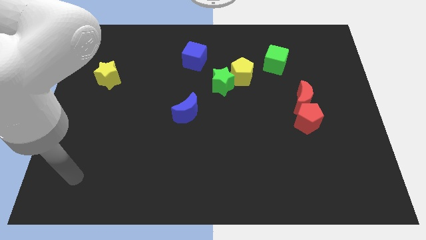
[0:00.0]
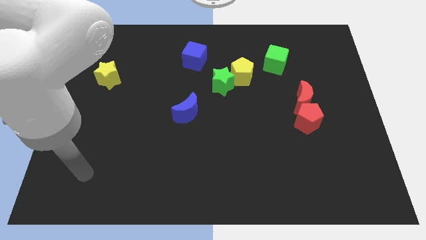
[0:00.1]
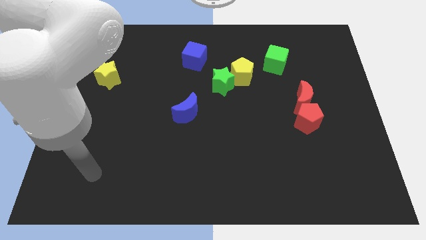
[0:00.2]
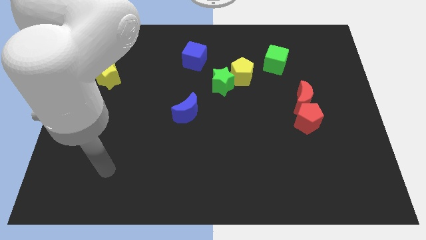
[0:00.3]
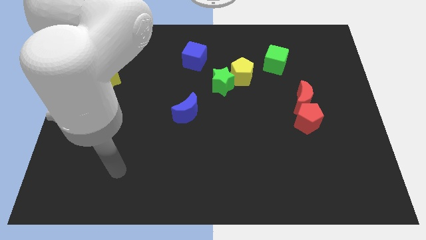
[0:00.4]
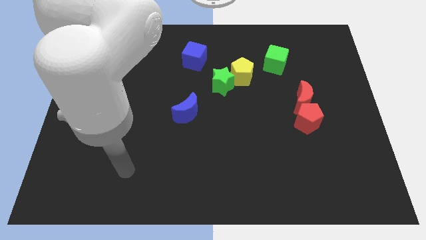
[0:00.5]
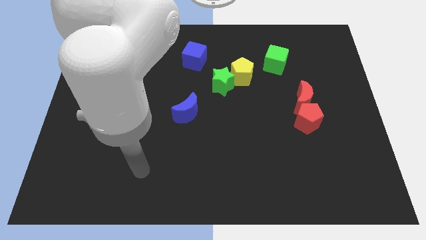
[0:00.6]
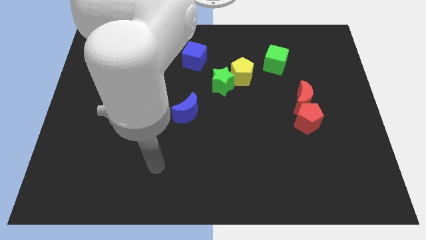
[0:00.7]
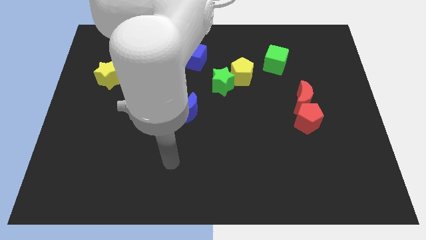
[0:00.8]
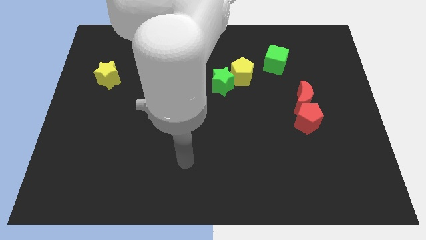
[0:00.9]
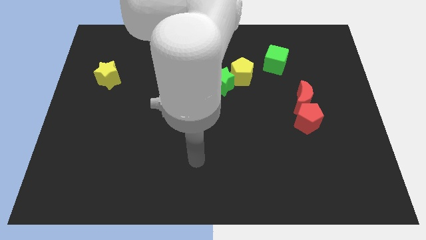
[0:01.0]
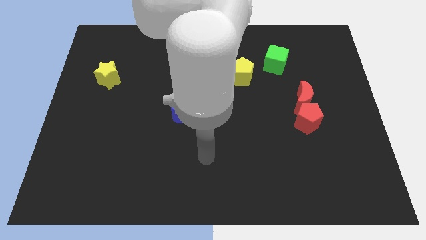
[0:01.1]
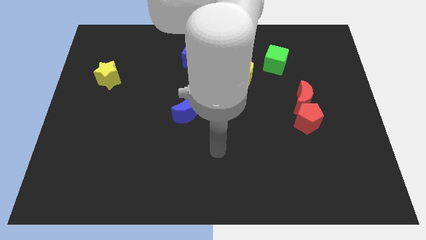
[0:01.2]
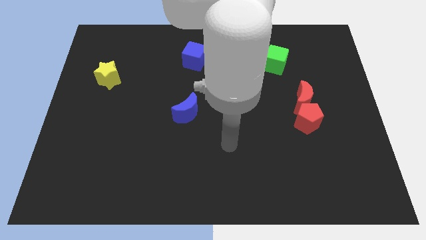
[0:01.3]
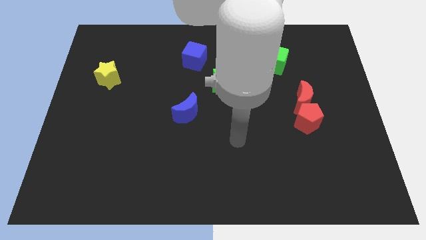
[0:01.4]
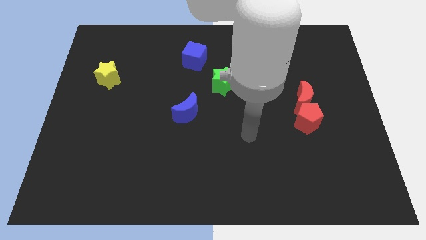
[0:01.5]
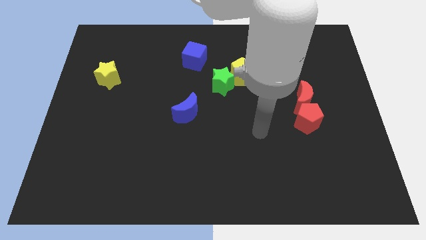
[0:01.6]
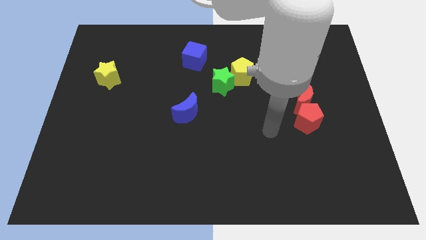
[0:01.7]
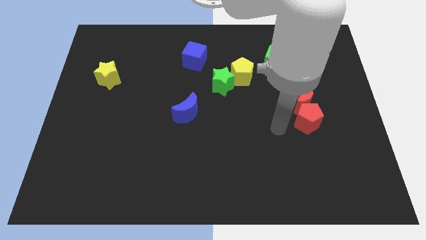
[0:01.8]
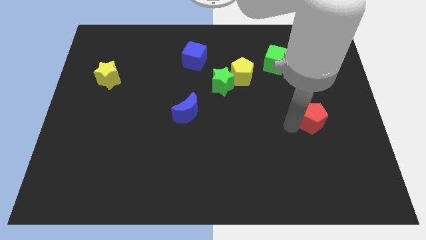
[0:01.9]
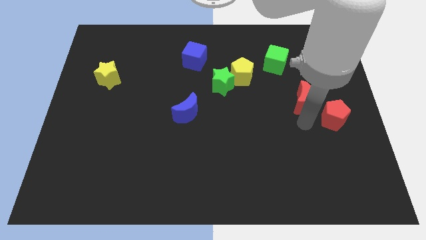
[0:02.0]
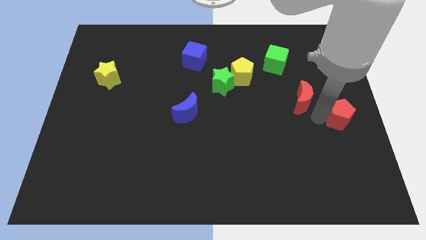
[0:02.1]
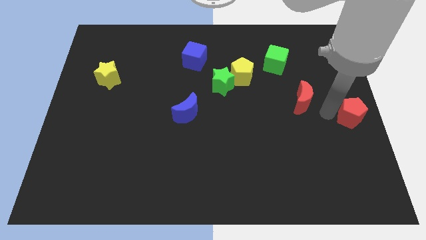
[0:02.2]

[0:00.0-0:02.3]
move the red moon away from the red pentagon

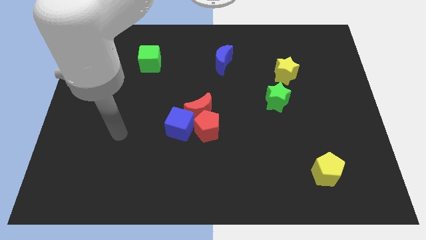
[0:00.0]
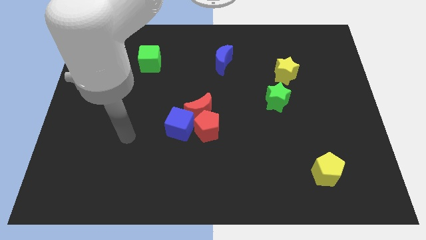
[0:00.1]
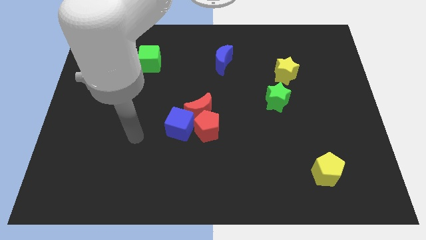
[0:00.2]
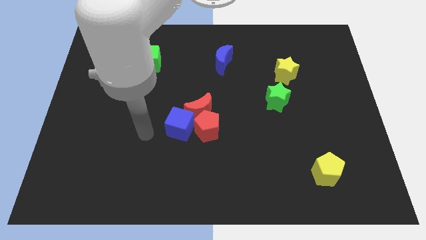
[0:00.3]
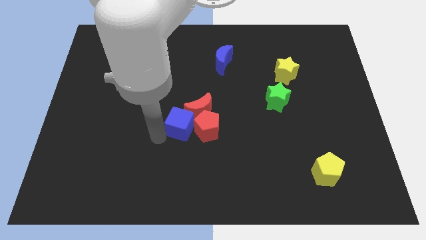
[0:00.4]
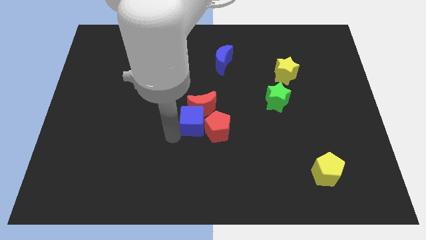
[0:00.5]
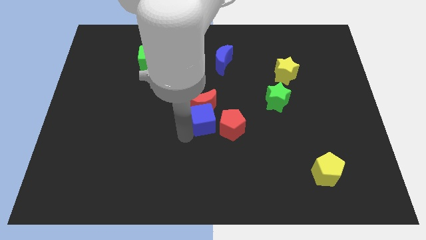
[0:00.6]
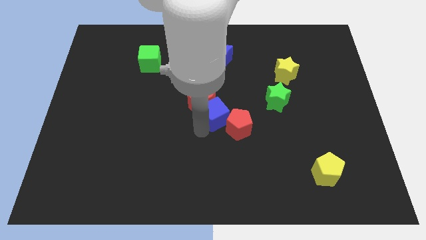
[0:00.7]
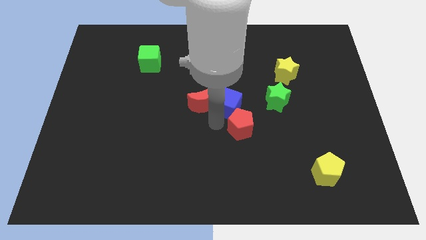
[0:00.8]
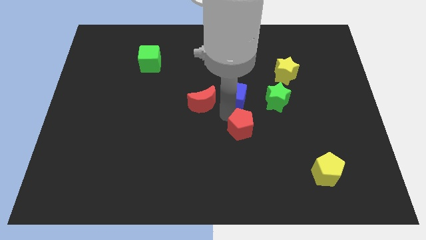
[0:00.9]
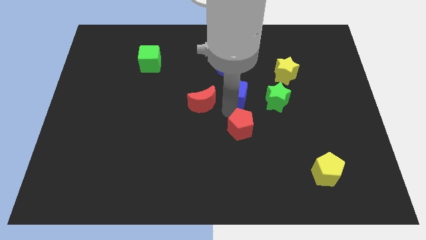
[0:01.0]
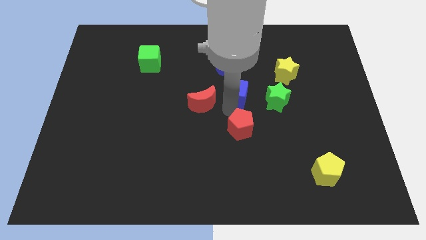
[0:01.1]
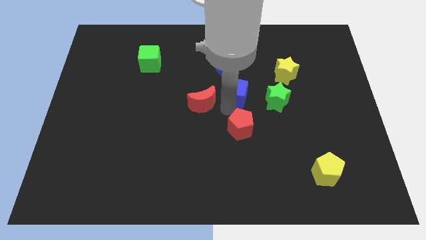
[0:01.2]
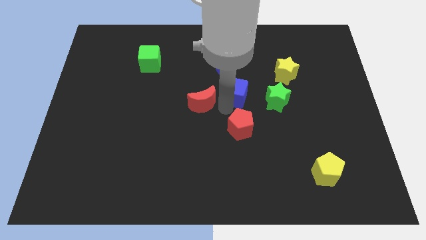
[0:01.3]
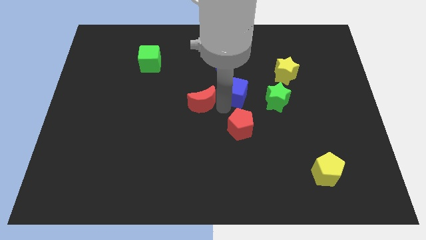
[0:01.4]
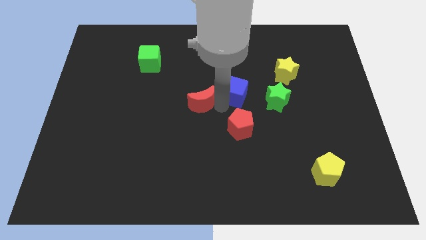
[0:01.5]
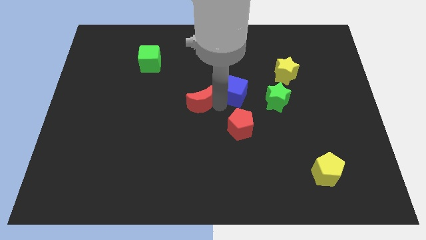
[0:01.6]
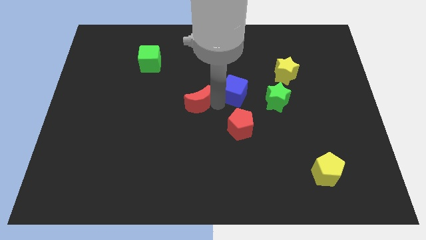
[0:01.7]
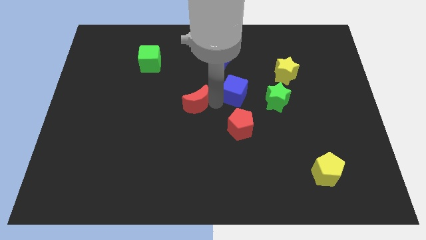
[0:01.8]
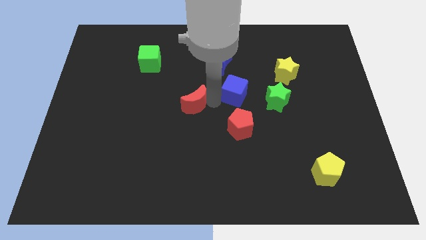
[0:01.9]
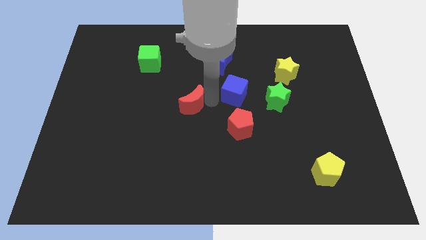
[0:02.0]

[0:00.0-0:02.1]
separate the red moon from the red pentagon and blue cube

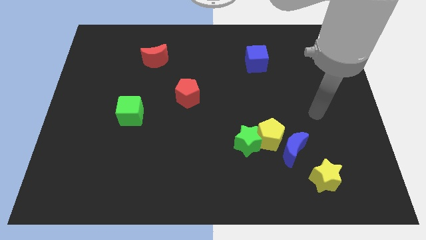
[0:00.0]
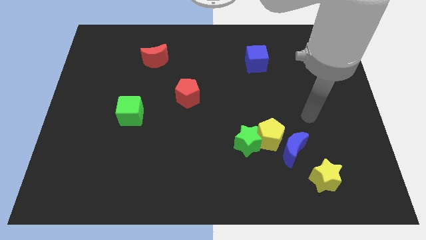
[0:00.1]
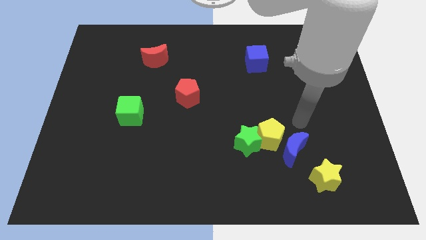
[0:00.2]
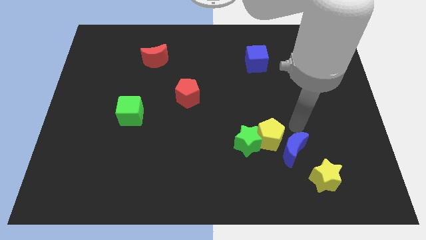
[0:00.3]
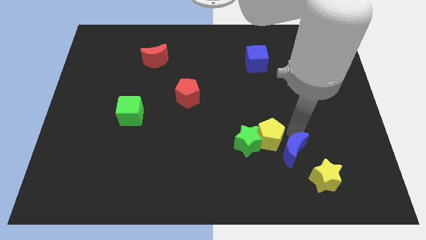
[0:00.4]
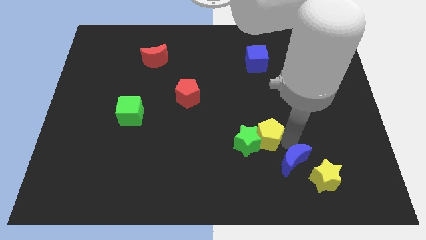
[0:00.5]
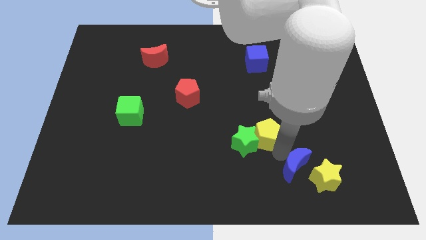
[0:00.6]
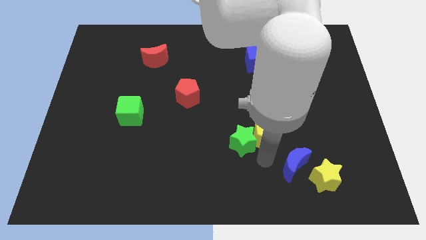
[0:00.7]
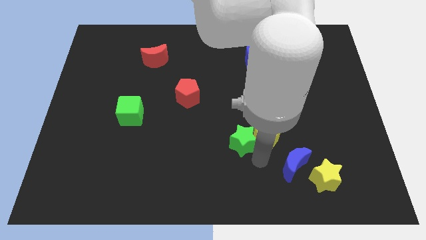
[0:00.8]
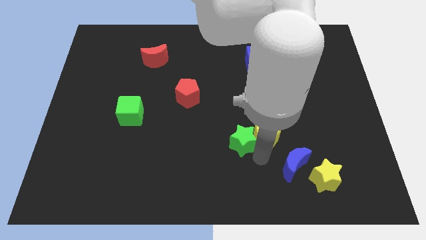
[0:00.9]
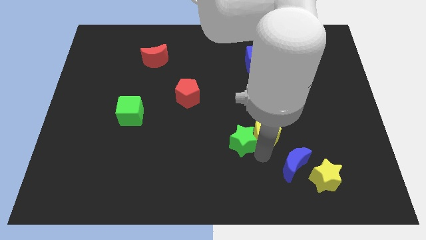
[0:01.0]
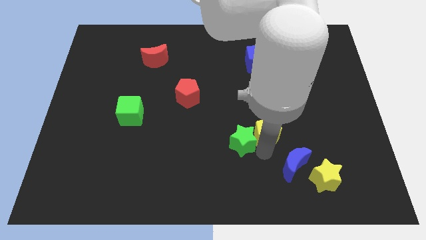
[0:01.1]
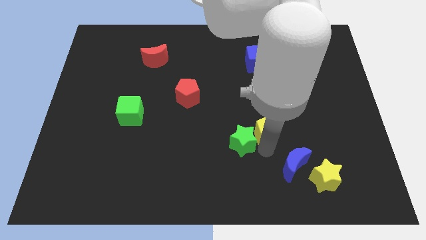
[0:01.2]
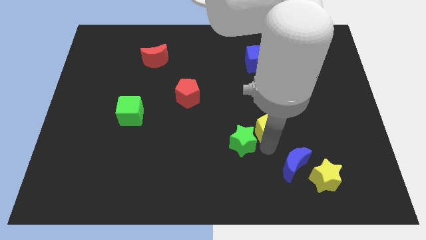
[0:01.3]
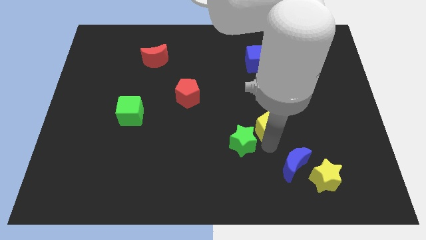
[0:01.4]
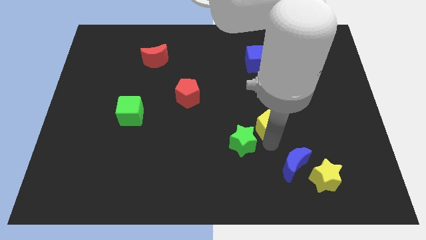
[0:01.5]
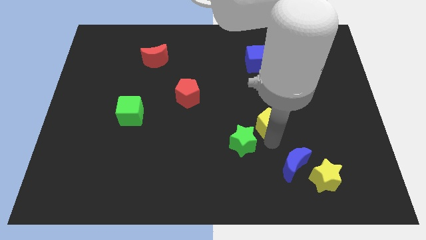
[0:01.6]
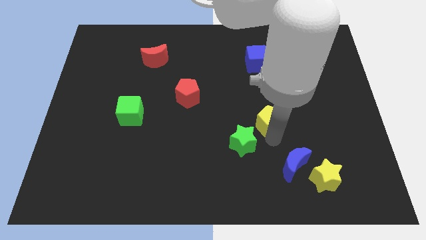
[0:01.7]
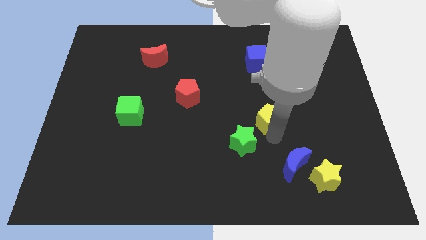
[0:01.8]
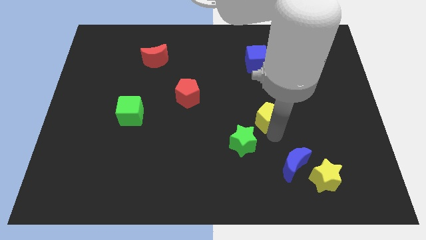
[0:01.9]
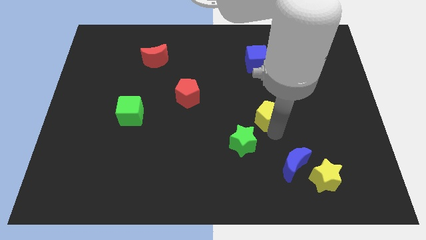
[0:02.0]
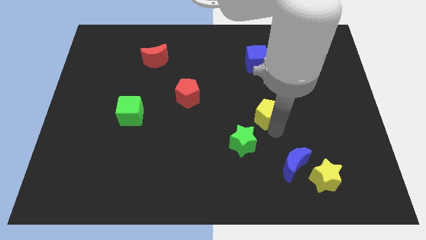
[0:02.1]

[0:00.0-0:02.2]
move the yellow pentagon away from the green star and blue moon

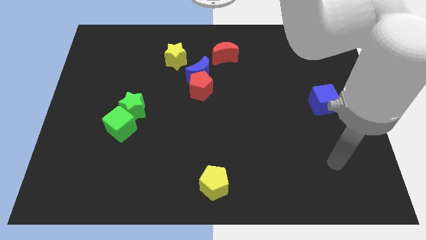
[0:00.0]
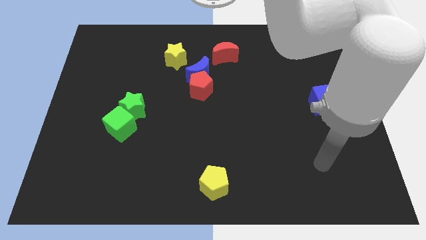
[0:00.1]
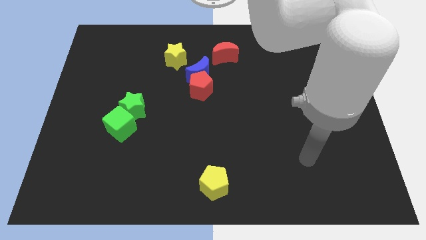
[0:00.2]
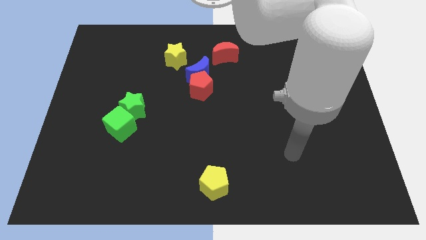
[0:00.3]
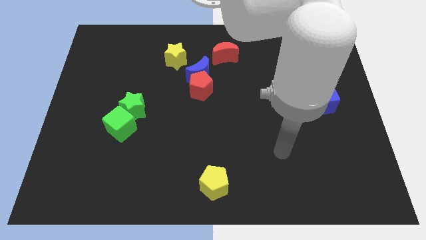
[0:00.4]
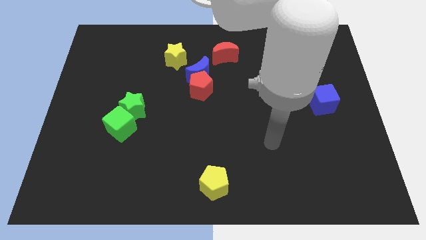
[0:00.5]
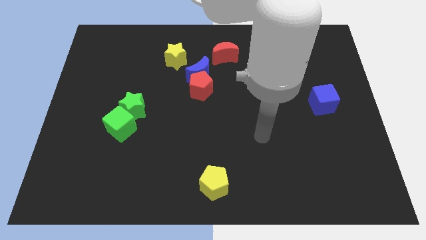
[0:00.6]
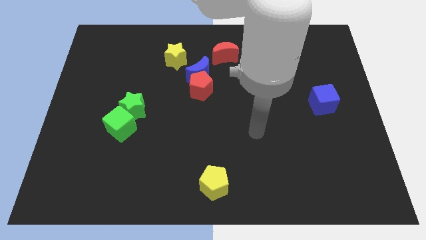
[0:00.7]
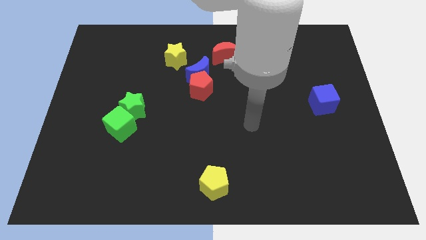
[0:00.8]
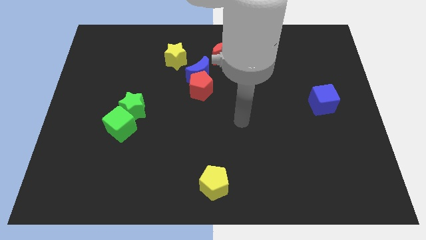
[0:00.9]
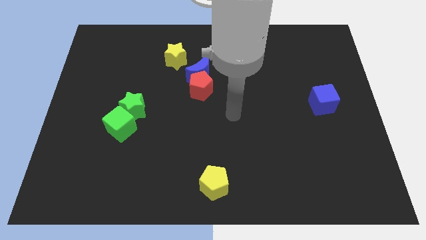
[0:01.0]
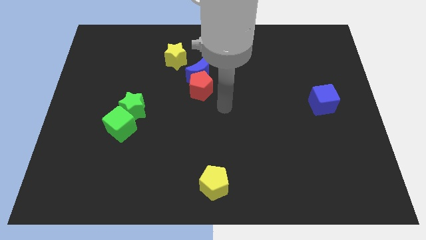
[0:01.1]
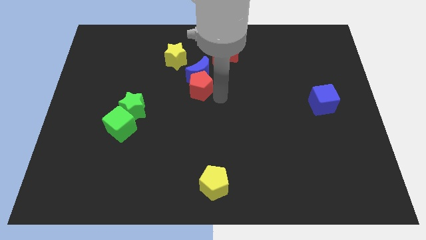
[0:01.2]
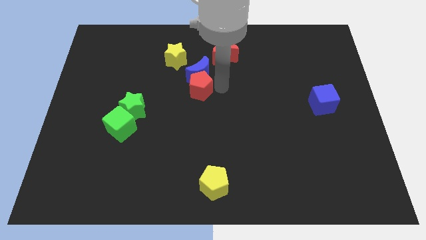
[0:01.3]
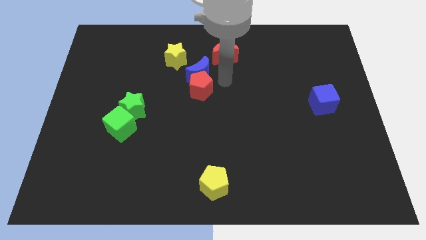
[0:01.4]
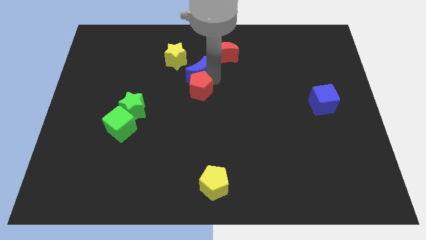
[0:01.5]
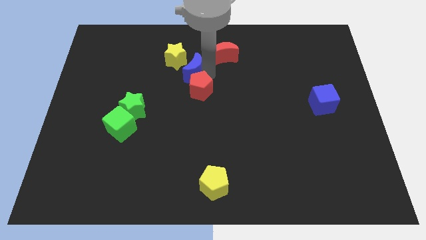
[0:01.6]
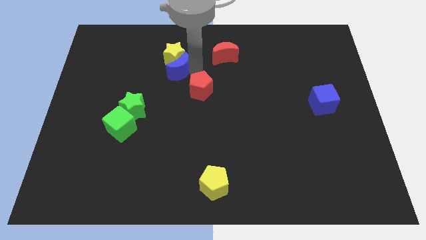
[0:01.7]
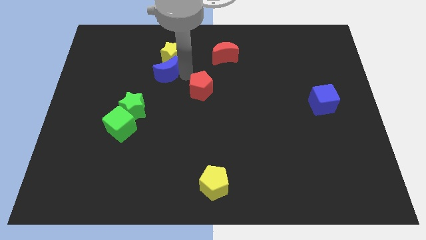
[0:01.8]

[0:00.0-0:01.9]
pull the red pentagon apart from the blue moon

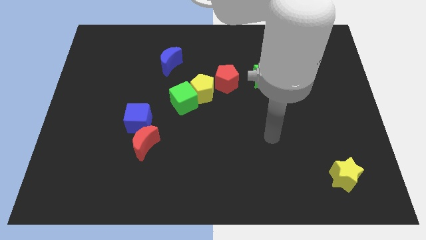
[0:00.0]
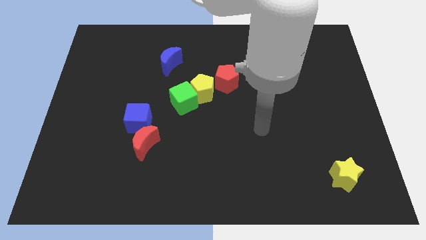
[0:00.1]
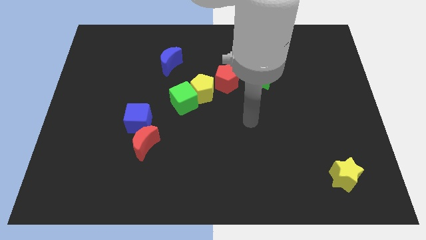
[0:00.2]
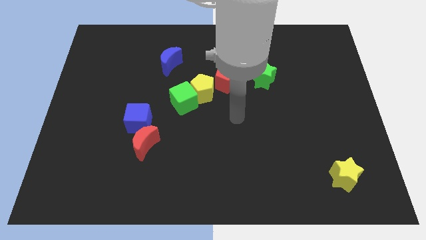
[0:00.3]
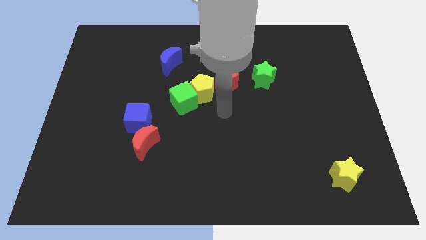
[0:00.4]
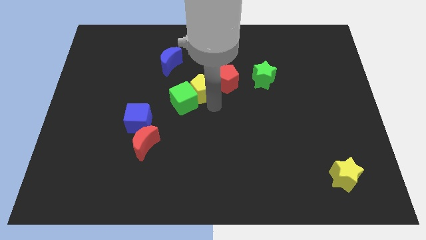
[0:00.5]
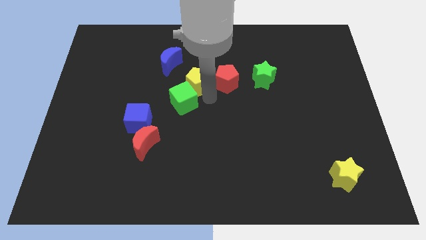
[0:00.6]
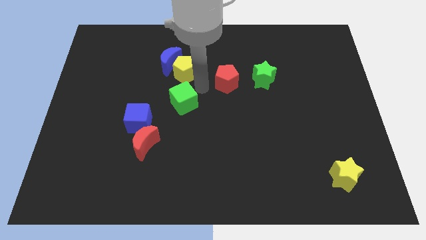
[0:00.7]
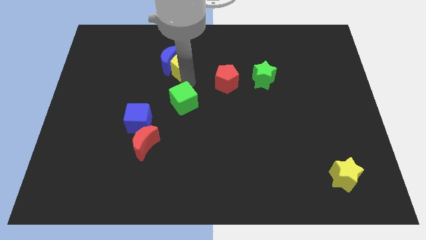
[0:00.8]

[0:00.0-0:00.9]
move the green cube away from the yellow pentagon
